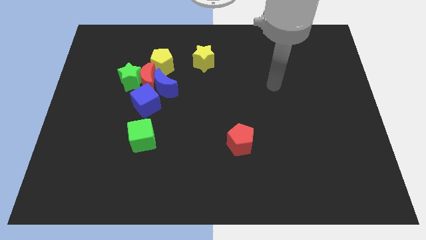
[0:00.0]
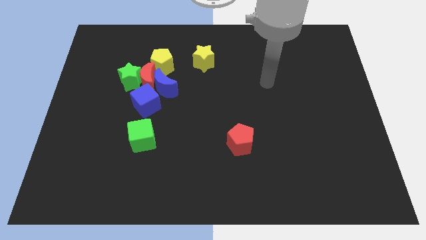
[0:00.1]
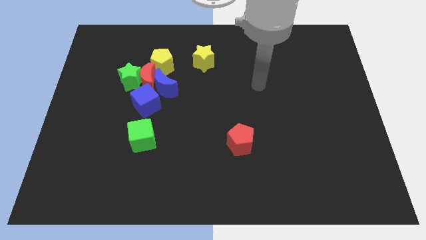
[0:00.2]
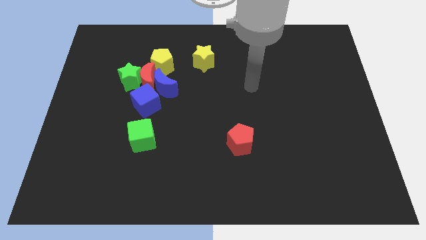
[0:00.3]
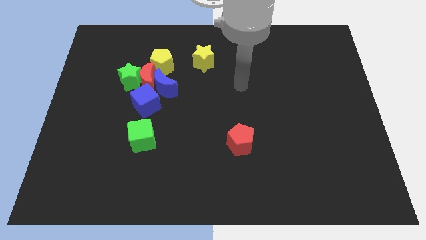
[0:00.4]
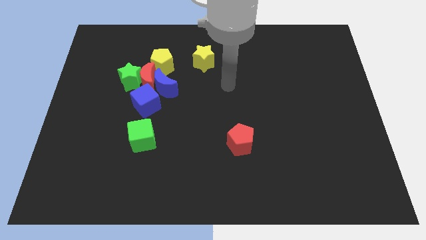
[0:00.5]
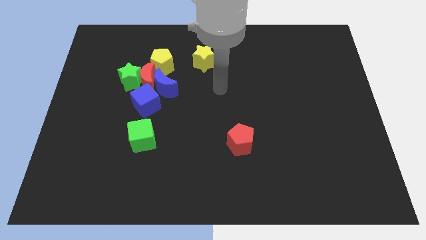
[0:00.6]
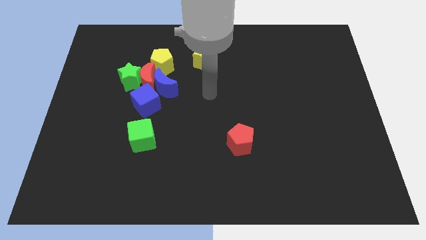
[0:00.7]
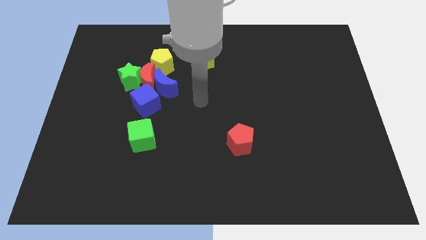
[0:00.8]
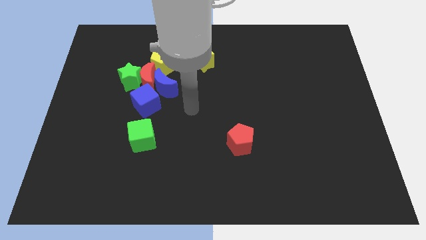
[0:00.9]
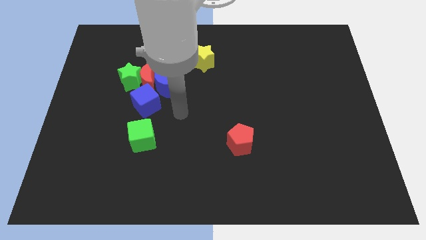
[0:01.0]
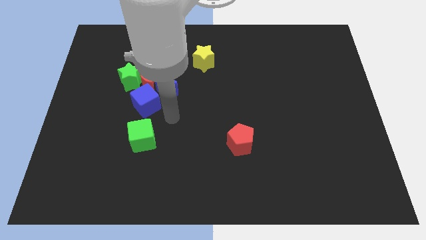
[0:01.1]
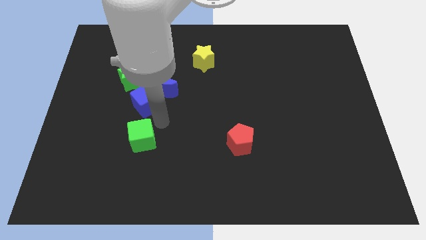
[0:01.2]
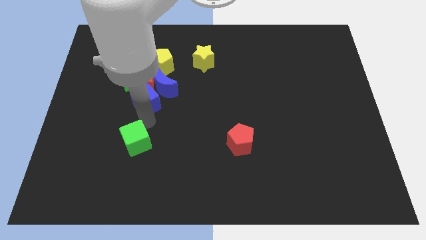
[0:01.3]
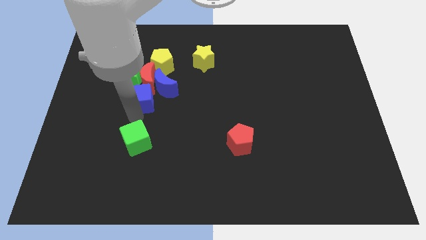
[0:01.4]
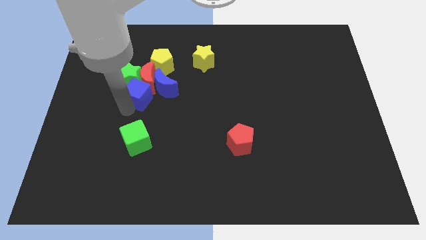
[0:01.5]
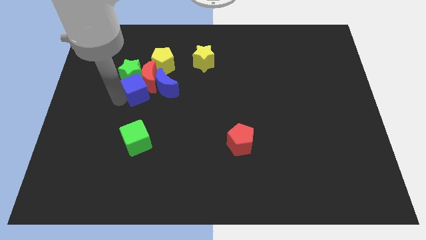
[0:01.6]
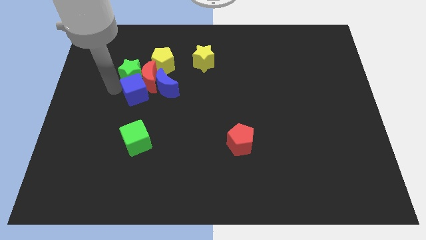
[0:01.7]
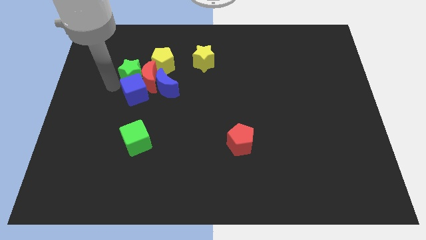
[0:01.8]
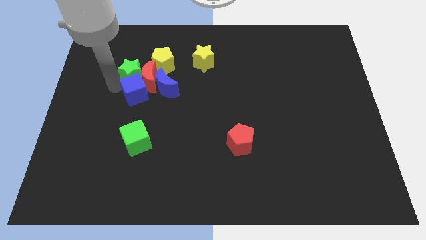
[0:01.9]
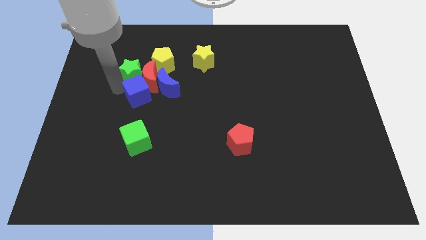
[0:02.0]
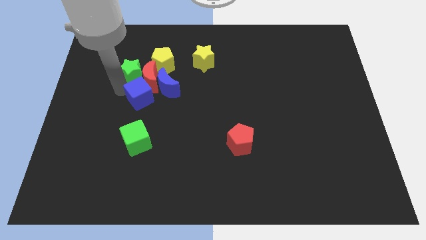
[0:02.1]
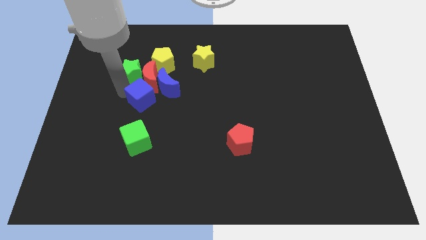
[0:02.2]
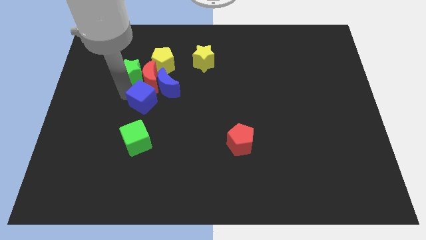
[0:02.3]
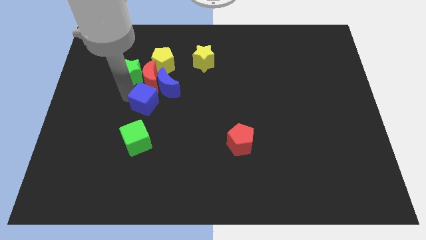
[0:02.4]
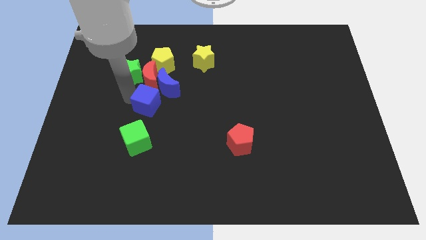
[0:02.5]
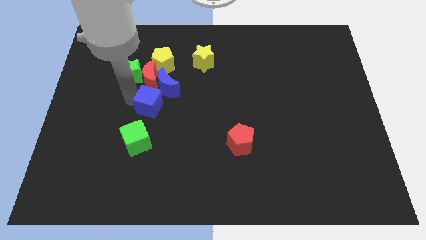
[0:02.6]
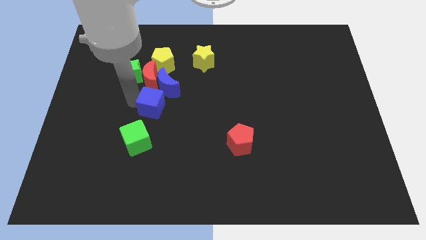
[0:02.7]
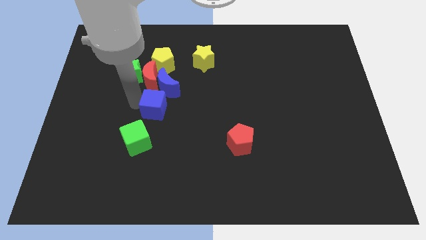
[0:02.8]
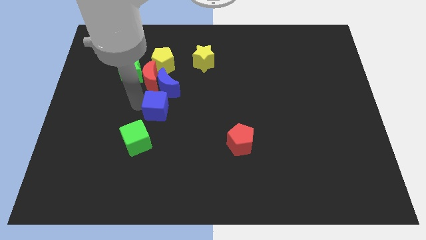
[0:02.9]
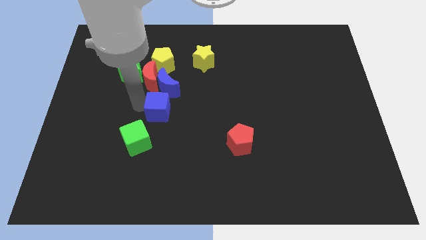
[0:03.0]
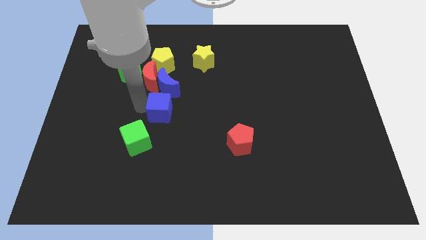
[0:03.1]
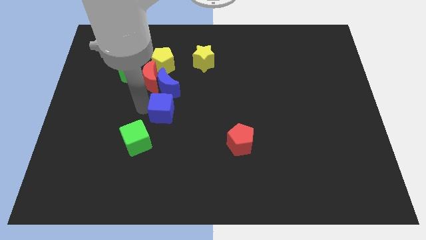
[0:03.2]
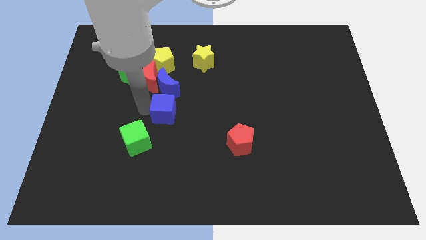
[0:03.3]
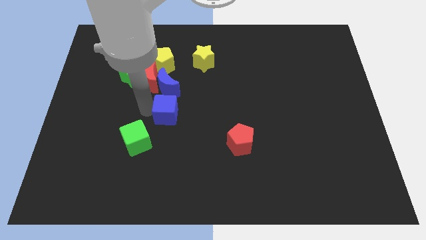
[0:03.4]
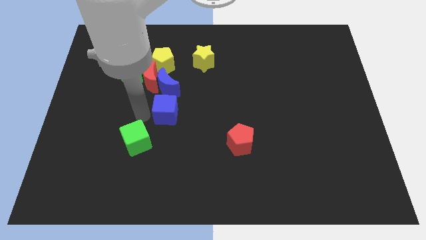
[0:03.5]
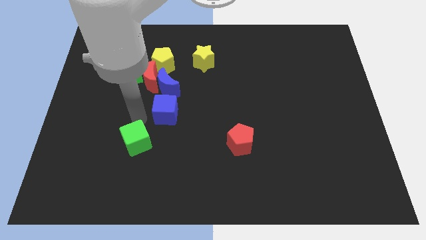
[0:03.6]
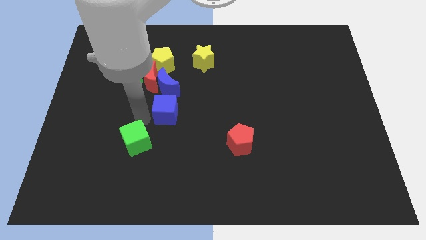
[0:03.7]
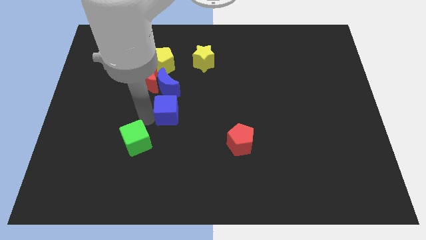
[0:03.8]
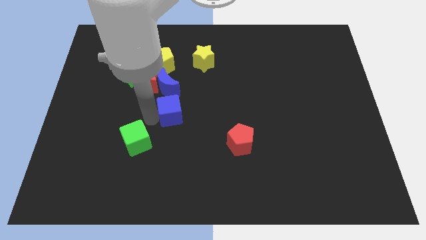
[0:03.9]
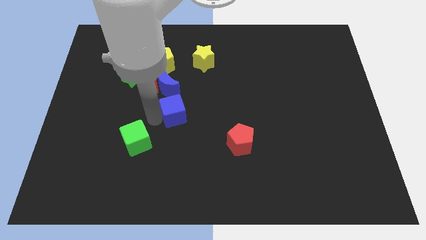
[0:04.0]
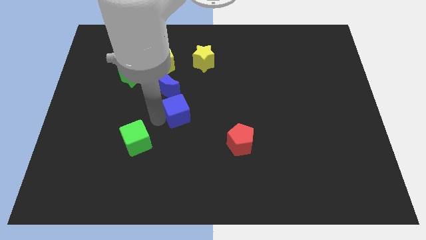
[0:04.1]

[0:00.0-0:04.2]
push the blue cube somewhat right

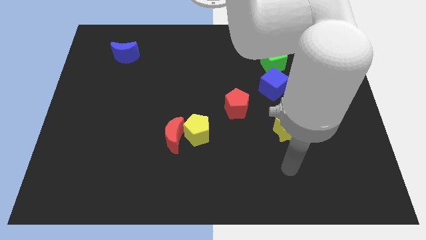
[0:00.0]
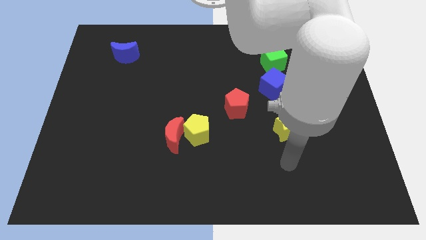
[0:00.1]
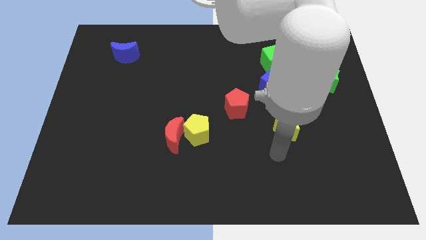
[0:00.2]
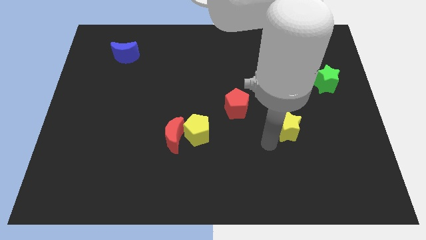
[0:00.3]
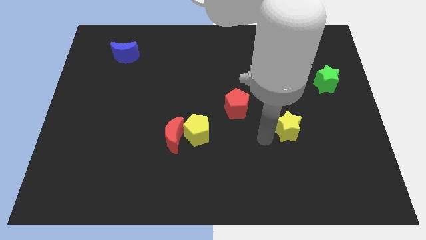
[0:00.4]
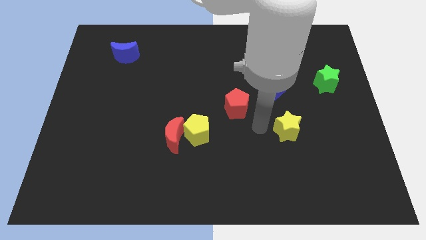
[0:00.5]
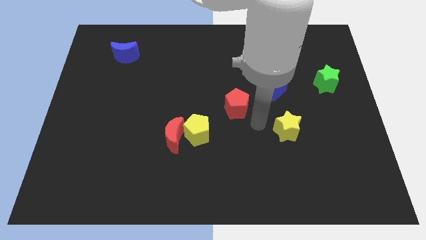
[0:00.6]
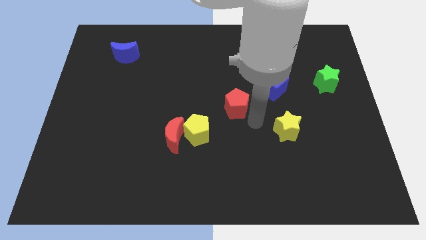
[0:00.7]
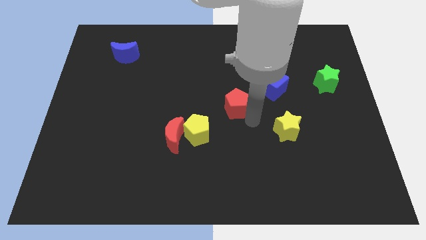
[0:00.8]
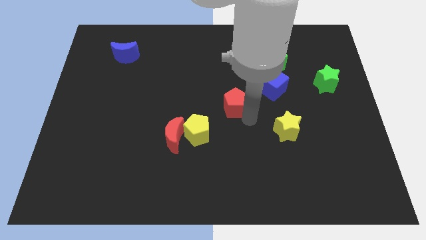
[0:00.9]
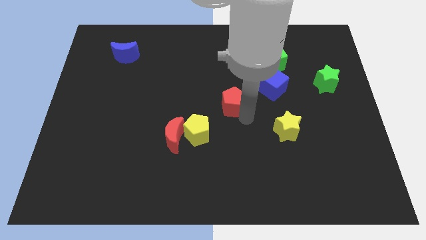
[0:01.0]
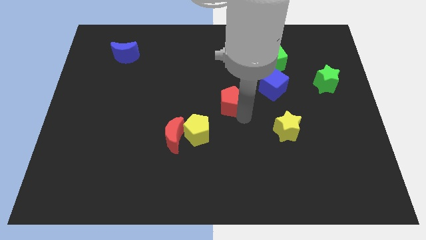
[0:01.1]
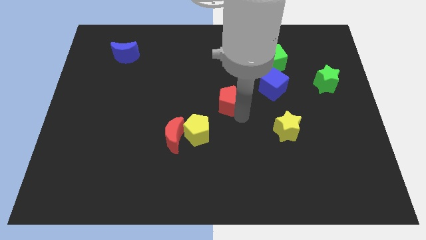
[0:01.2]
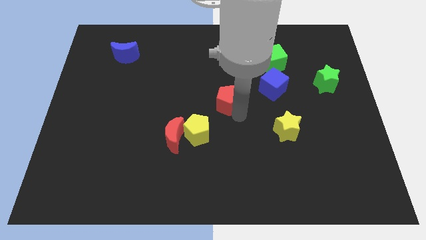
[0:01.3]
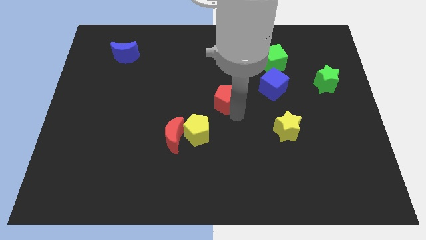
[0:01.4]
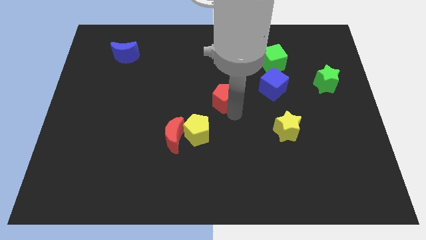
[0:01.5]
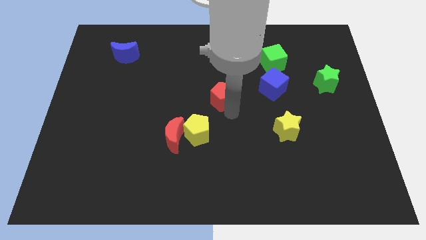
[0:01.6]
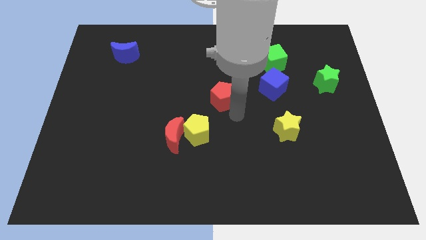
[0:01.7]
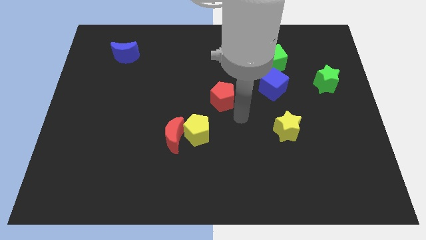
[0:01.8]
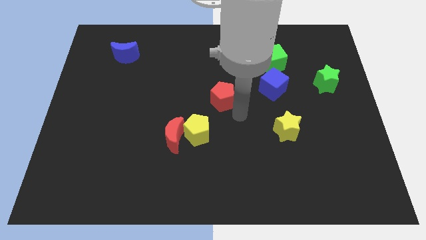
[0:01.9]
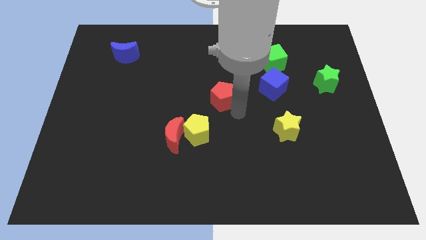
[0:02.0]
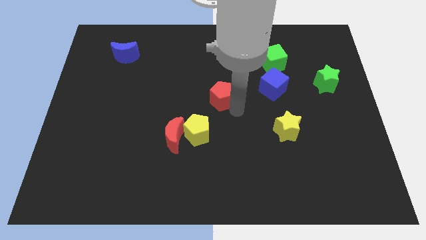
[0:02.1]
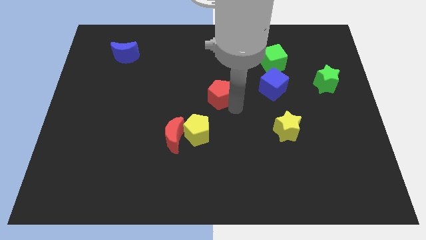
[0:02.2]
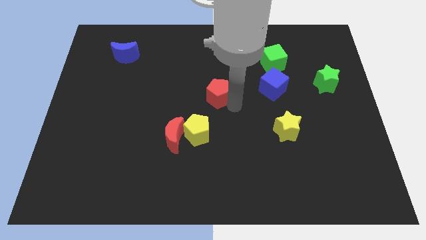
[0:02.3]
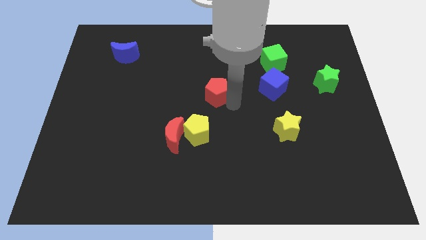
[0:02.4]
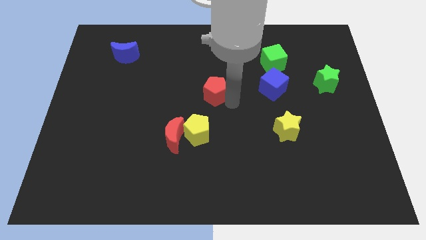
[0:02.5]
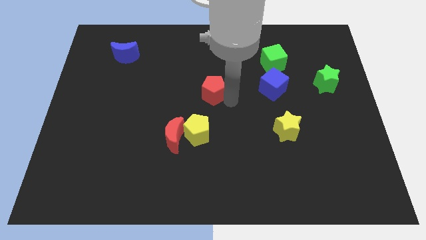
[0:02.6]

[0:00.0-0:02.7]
slide the red pentagon somewhat upwards and left

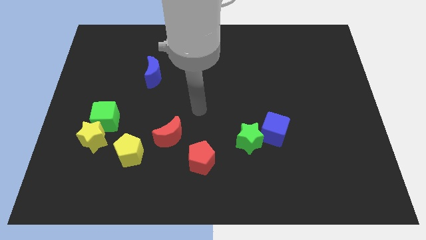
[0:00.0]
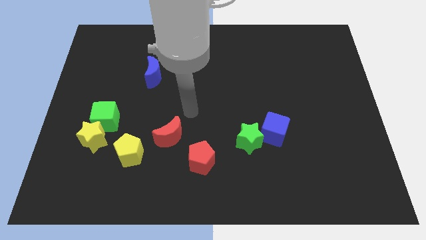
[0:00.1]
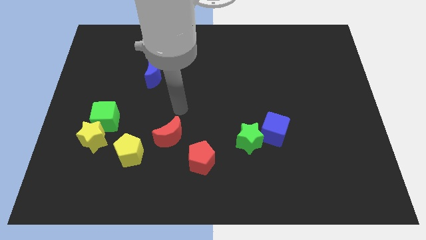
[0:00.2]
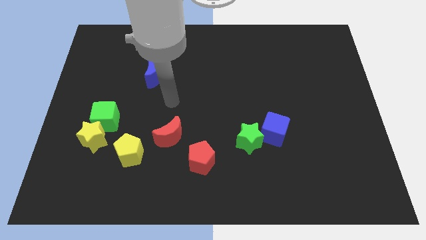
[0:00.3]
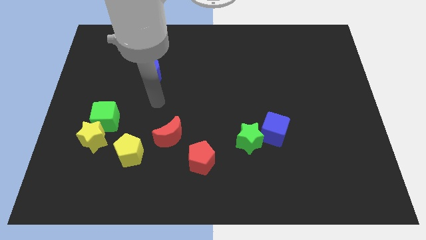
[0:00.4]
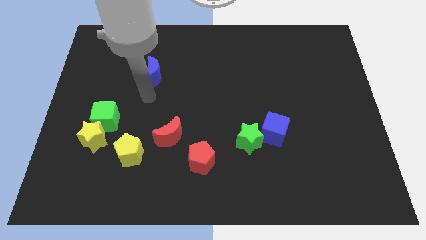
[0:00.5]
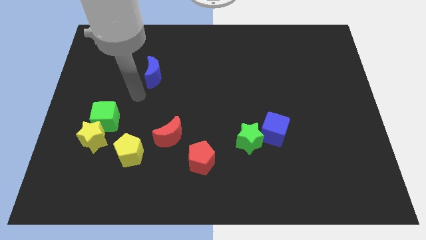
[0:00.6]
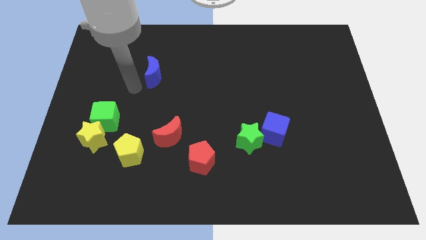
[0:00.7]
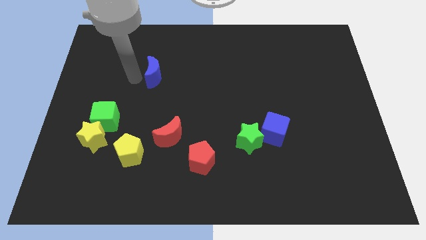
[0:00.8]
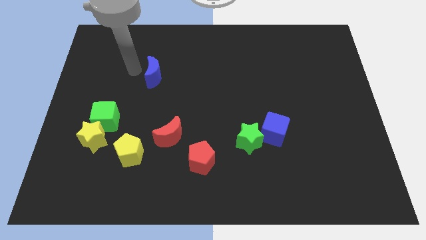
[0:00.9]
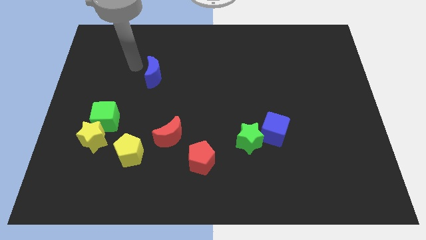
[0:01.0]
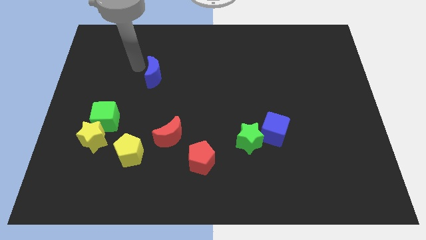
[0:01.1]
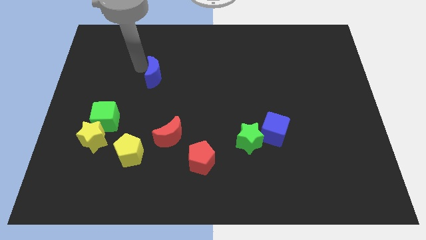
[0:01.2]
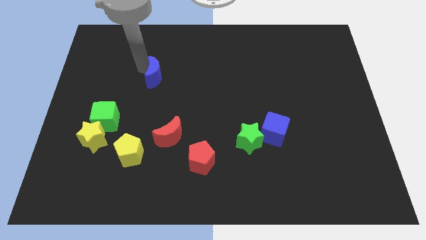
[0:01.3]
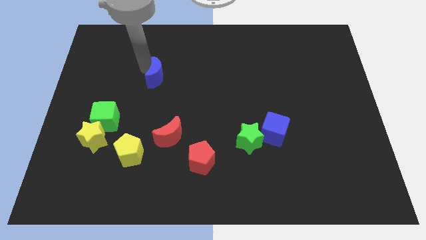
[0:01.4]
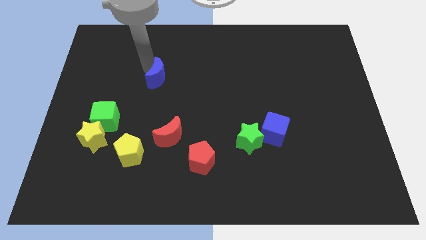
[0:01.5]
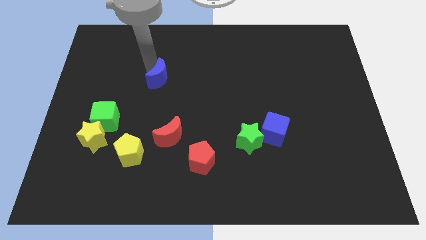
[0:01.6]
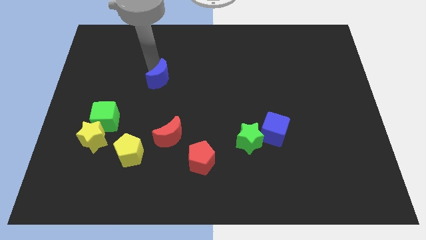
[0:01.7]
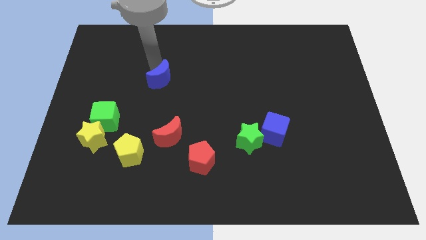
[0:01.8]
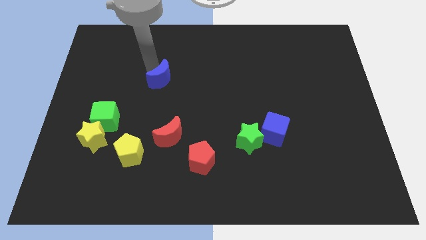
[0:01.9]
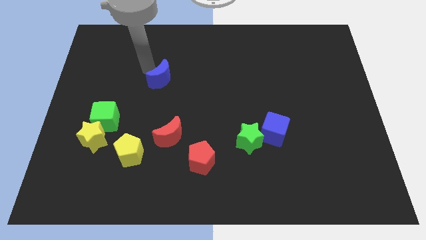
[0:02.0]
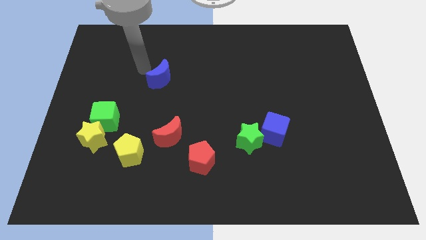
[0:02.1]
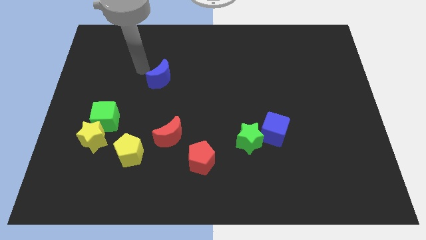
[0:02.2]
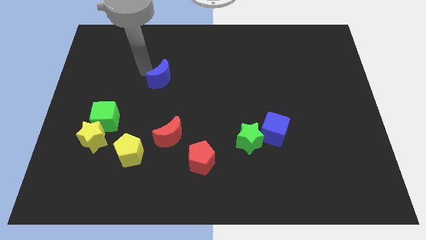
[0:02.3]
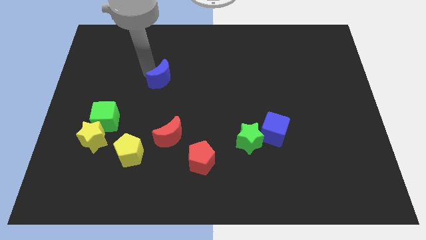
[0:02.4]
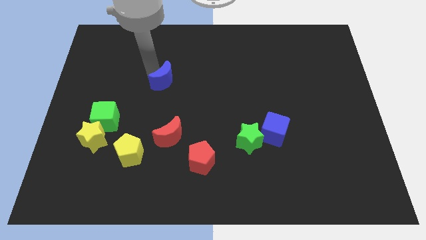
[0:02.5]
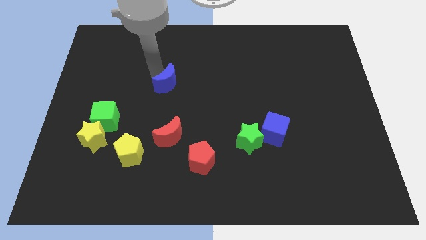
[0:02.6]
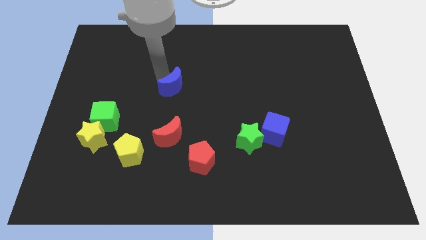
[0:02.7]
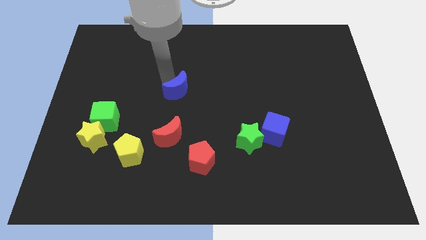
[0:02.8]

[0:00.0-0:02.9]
push the blue moon down and to the right somewhat
